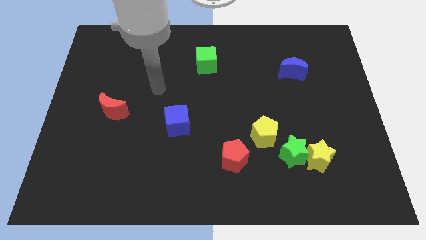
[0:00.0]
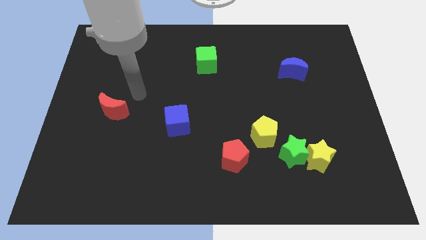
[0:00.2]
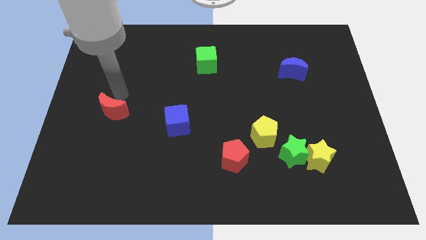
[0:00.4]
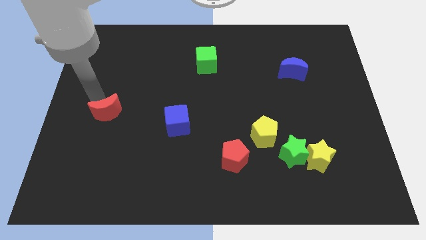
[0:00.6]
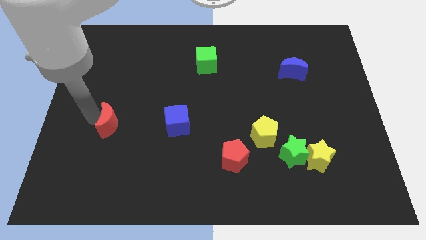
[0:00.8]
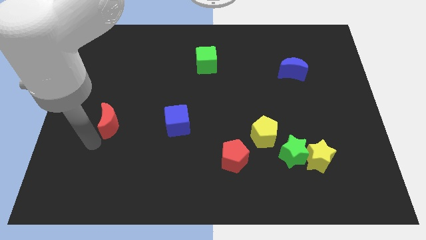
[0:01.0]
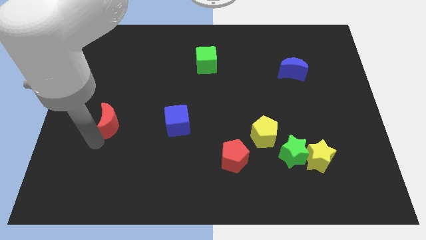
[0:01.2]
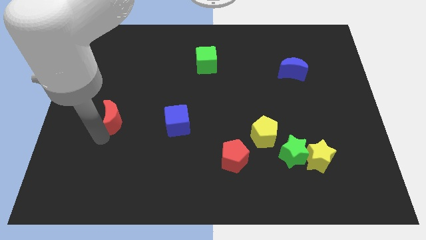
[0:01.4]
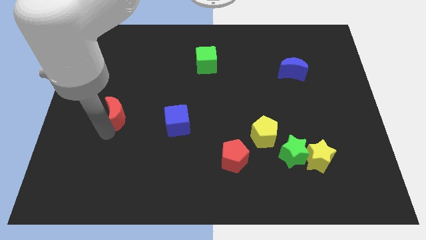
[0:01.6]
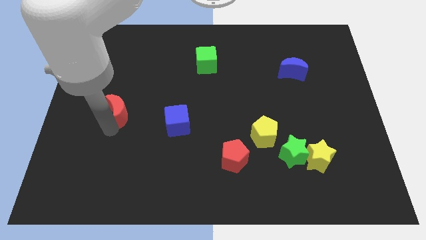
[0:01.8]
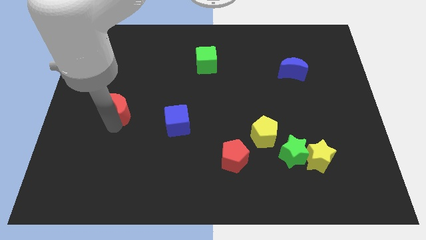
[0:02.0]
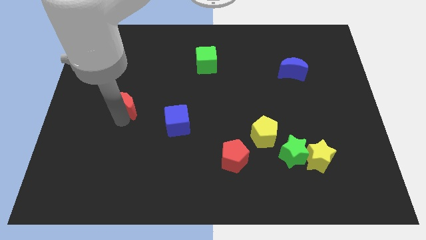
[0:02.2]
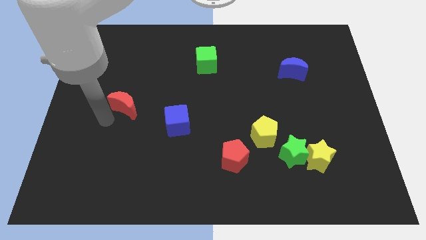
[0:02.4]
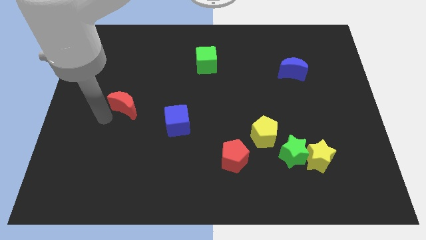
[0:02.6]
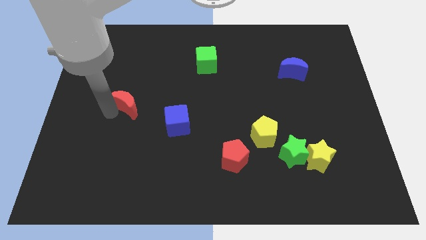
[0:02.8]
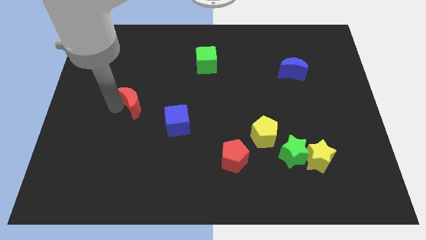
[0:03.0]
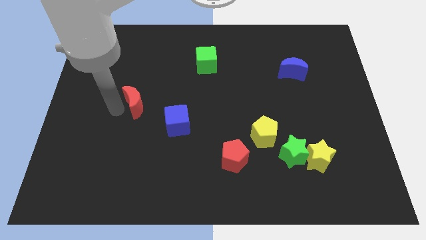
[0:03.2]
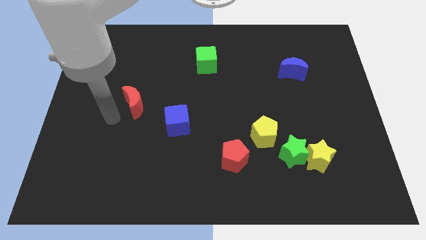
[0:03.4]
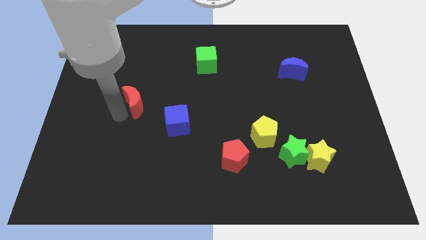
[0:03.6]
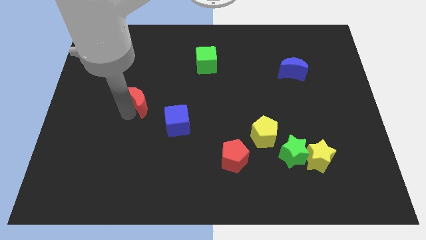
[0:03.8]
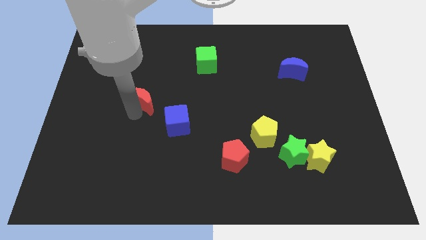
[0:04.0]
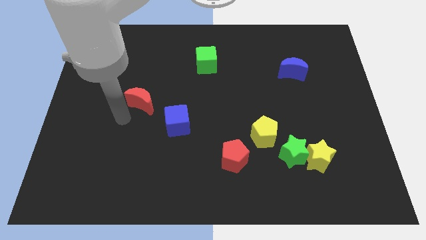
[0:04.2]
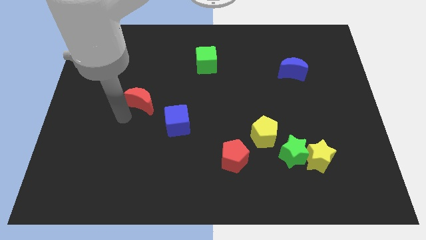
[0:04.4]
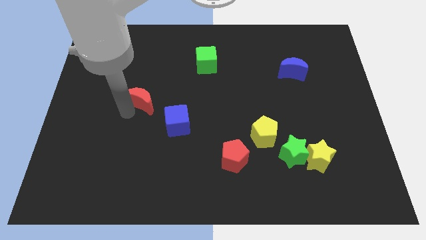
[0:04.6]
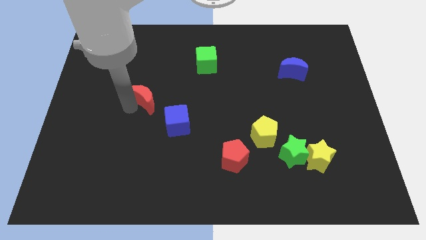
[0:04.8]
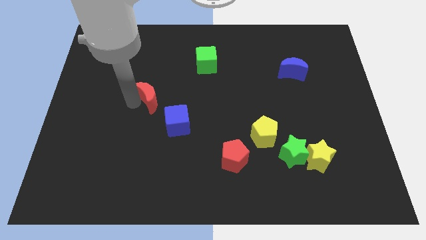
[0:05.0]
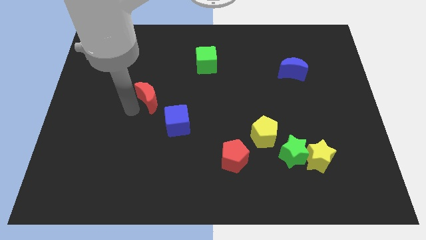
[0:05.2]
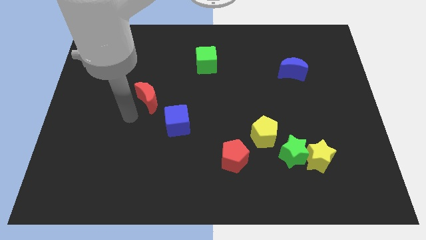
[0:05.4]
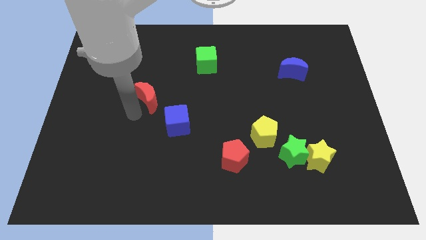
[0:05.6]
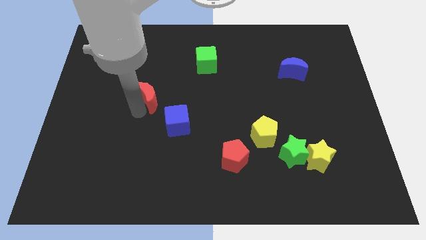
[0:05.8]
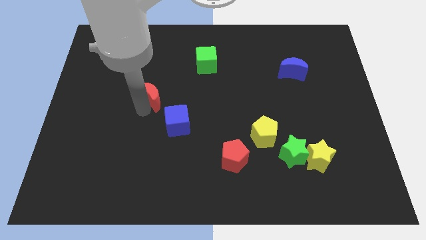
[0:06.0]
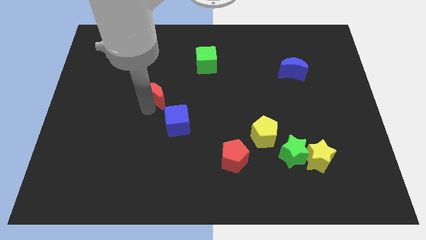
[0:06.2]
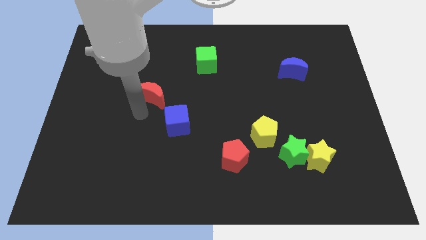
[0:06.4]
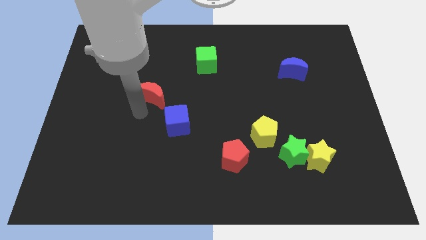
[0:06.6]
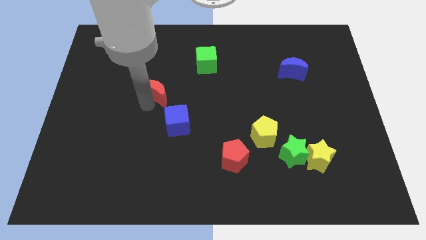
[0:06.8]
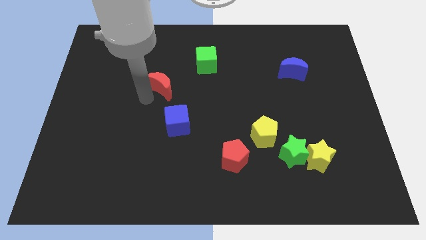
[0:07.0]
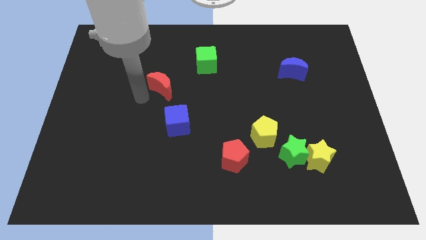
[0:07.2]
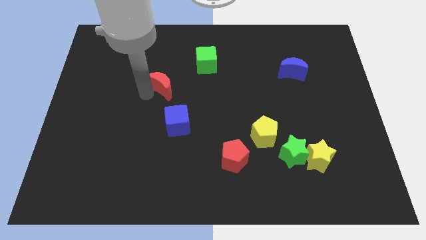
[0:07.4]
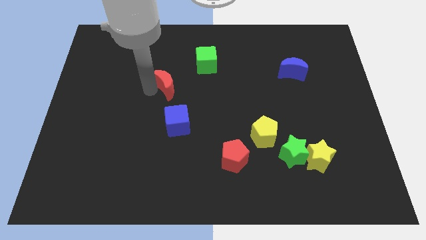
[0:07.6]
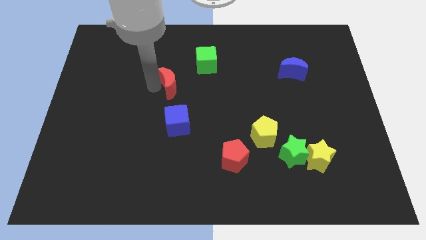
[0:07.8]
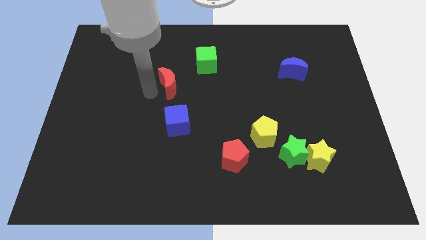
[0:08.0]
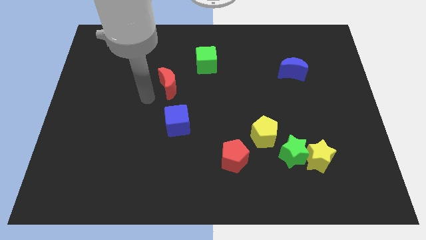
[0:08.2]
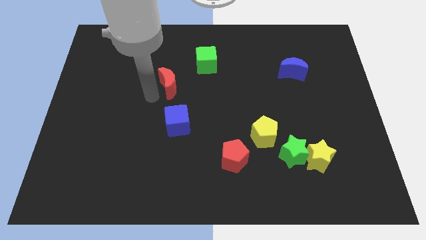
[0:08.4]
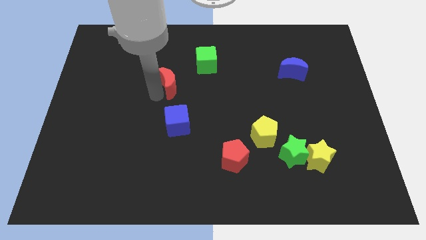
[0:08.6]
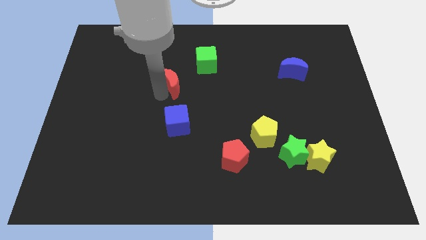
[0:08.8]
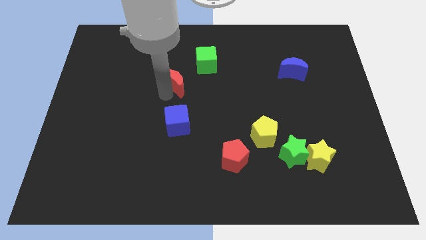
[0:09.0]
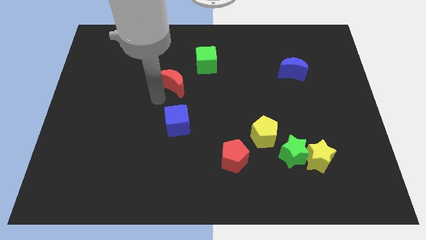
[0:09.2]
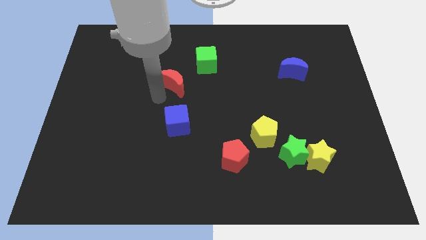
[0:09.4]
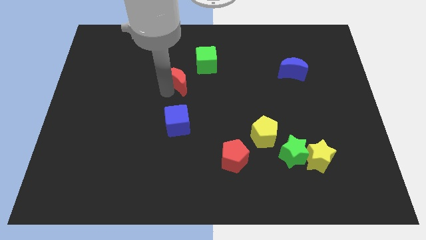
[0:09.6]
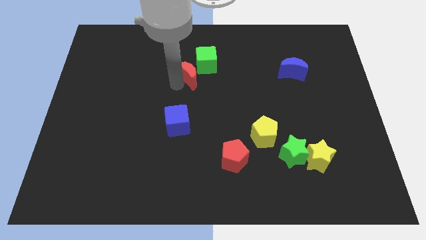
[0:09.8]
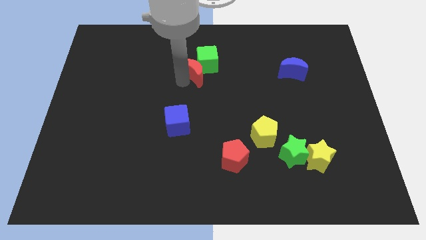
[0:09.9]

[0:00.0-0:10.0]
put the red moon to the green cube

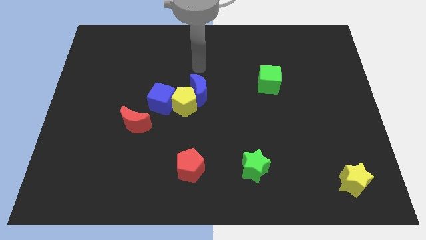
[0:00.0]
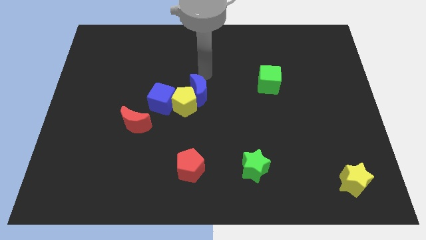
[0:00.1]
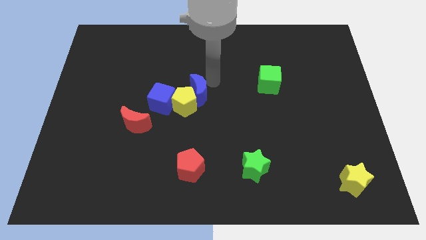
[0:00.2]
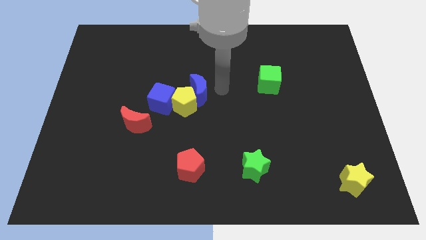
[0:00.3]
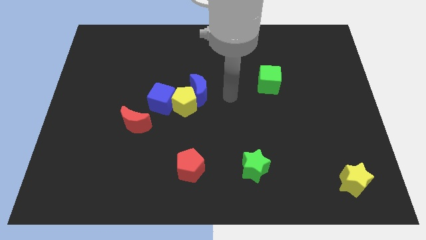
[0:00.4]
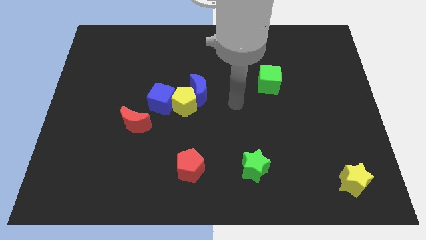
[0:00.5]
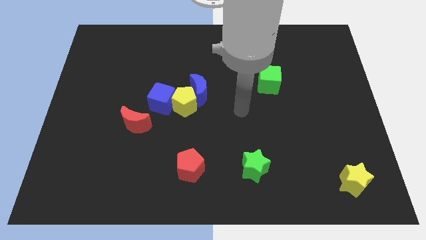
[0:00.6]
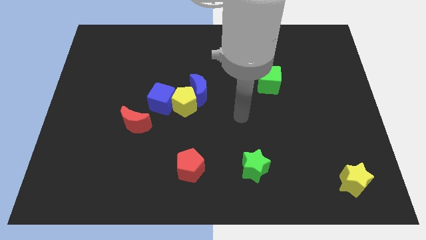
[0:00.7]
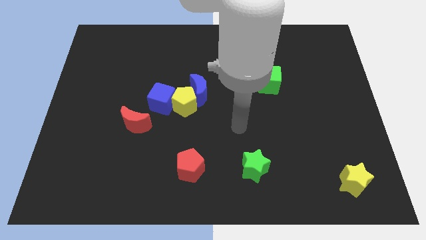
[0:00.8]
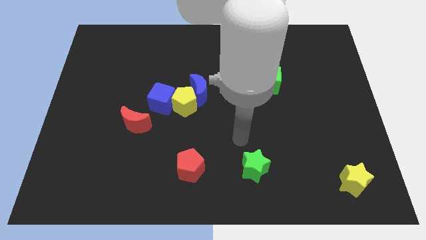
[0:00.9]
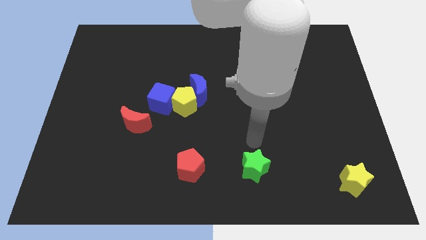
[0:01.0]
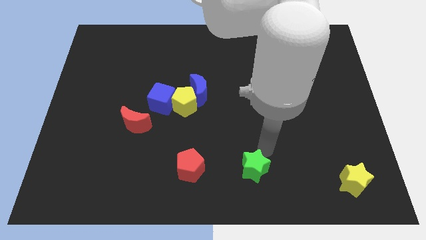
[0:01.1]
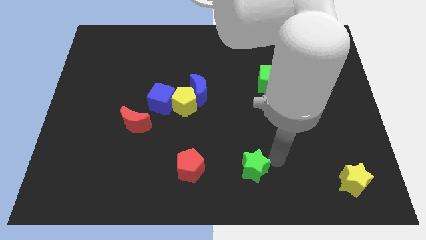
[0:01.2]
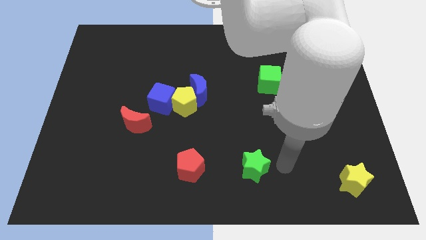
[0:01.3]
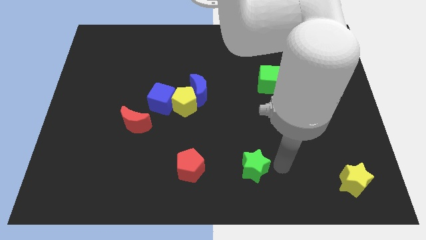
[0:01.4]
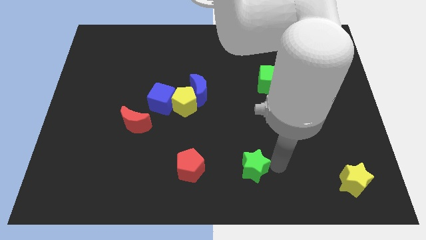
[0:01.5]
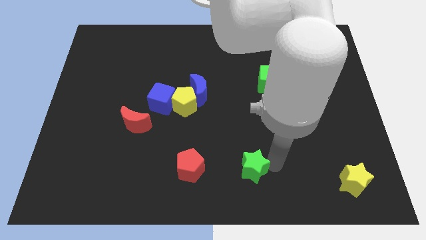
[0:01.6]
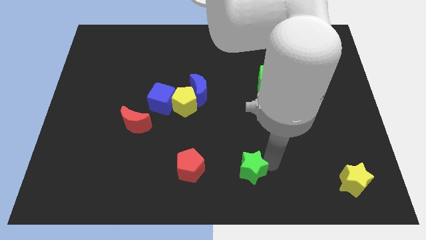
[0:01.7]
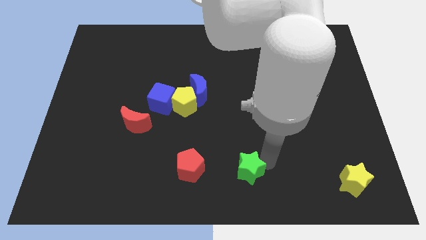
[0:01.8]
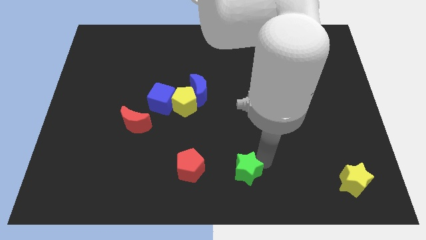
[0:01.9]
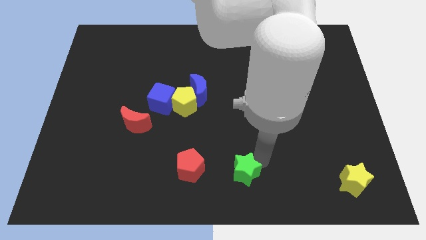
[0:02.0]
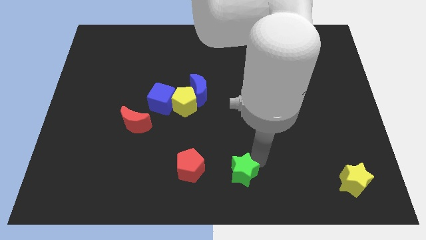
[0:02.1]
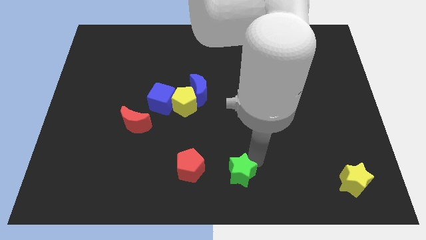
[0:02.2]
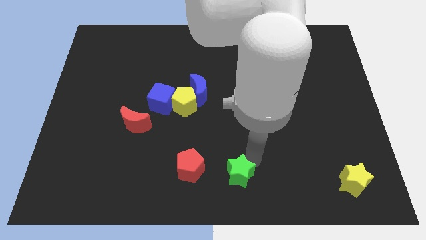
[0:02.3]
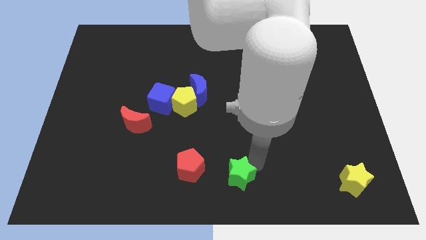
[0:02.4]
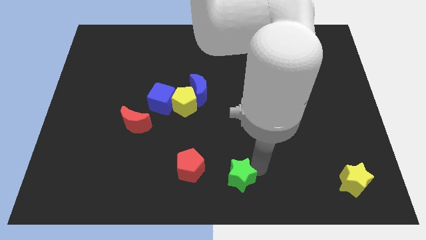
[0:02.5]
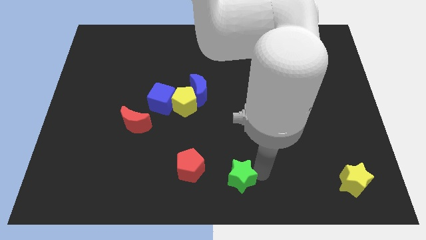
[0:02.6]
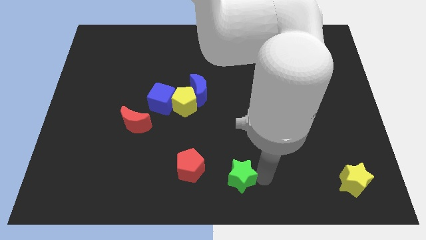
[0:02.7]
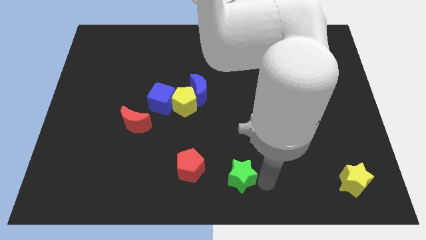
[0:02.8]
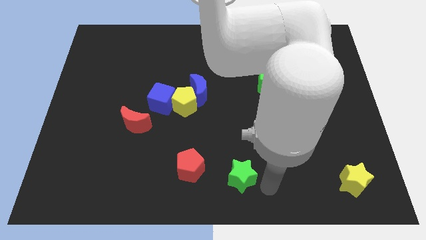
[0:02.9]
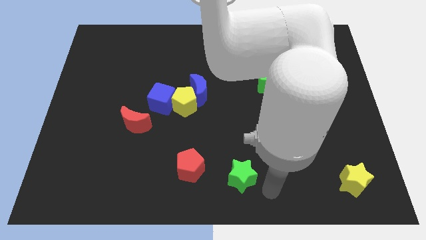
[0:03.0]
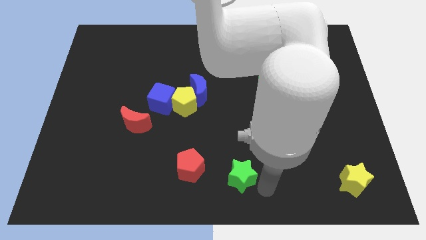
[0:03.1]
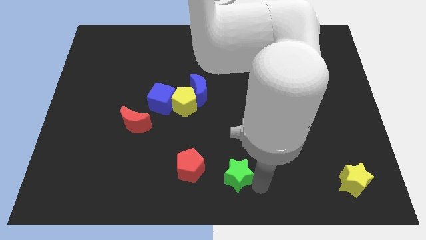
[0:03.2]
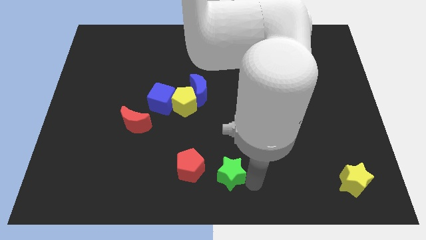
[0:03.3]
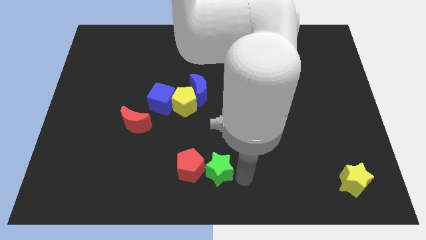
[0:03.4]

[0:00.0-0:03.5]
move the green star next to the red pentagon
